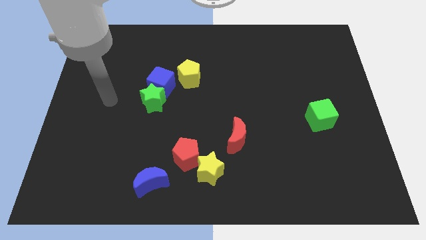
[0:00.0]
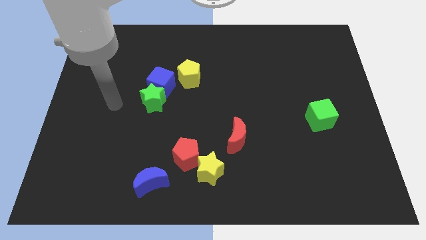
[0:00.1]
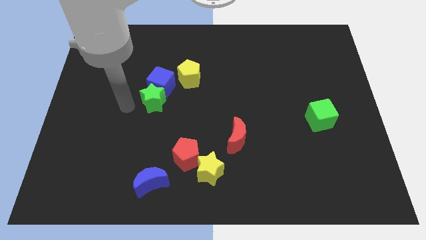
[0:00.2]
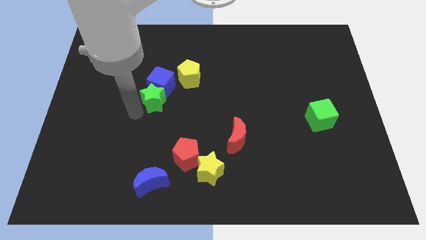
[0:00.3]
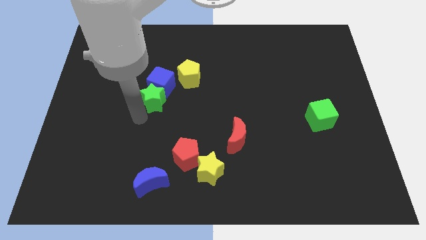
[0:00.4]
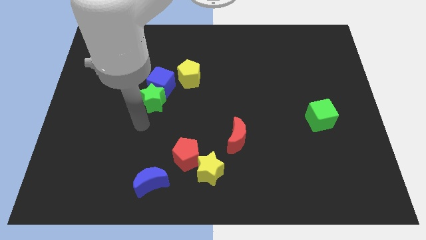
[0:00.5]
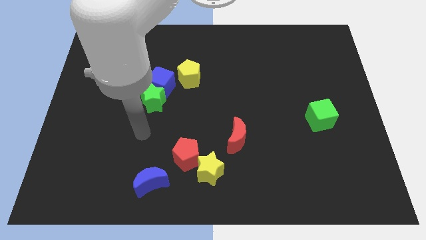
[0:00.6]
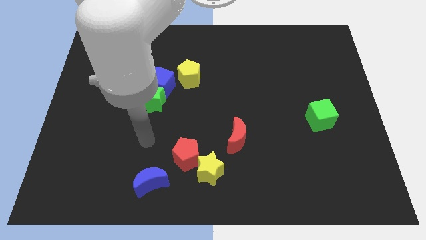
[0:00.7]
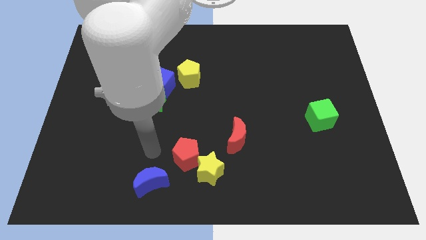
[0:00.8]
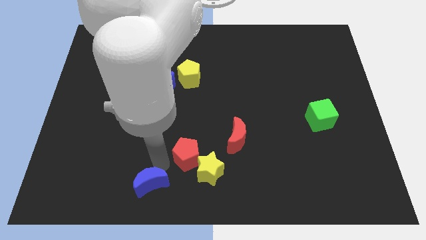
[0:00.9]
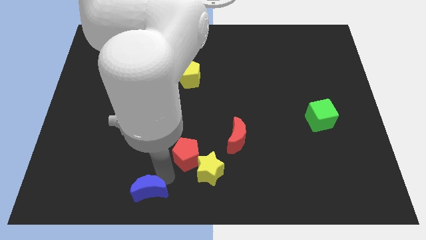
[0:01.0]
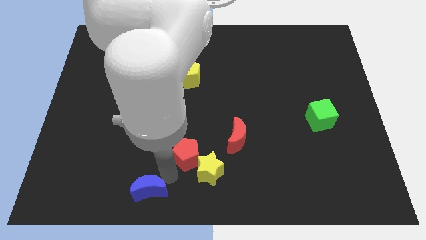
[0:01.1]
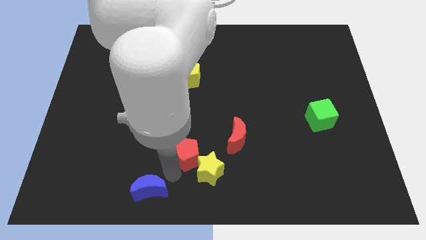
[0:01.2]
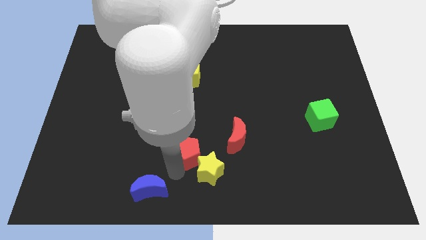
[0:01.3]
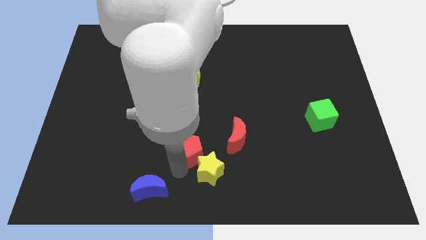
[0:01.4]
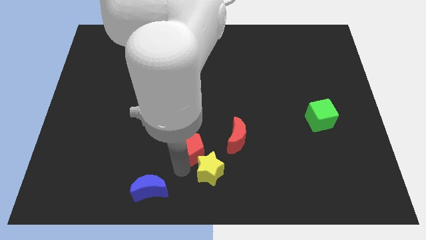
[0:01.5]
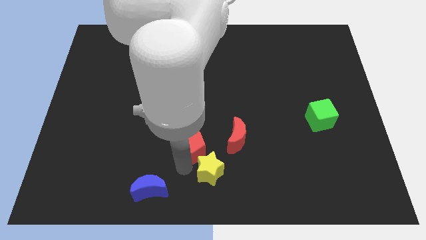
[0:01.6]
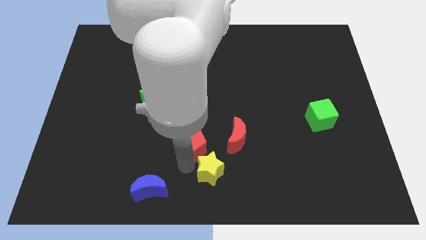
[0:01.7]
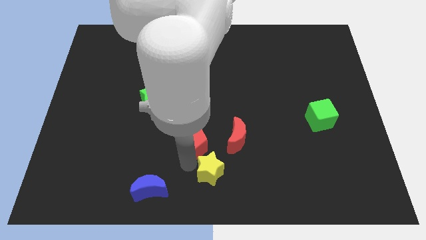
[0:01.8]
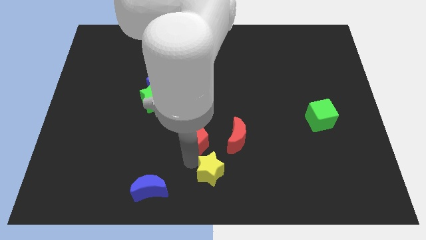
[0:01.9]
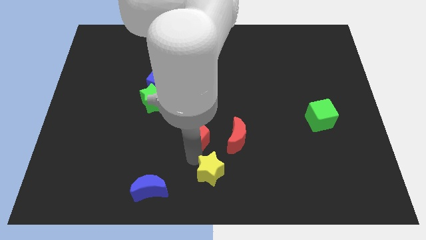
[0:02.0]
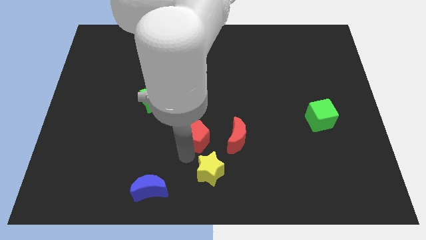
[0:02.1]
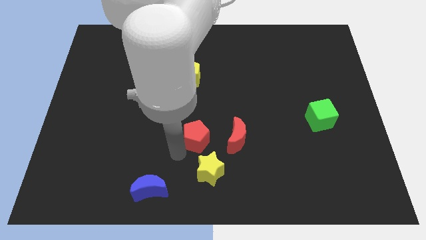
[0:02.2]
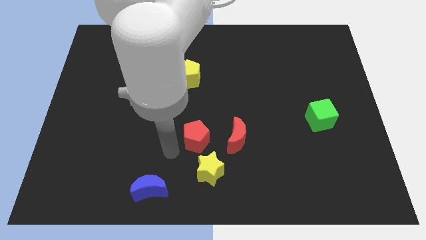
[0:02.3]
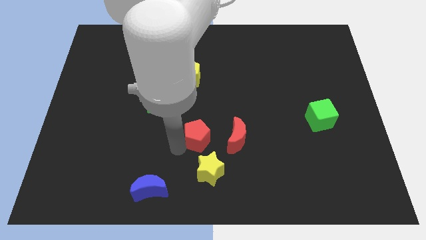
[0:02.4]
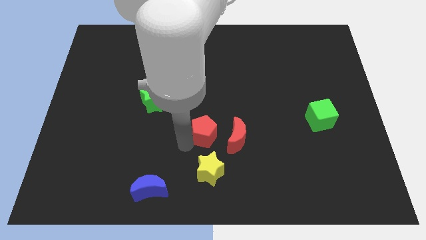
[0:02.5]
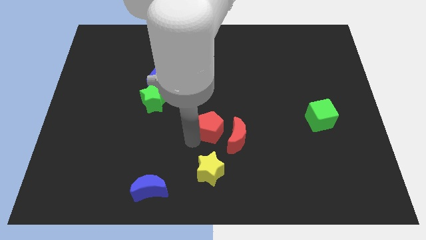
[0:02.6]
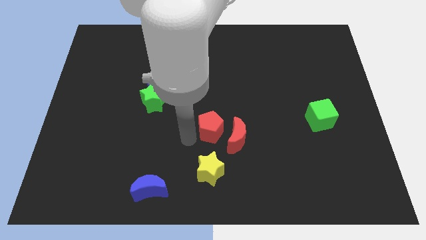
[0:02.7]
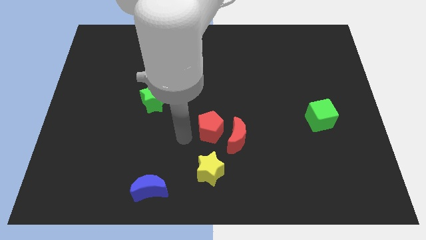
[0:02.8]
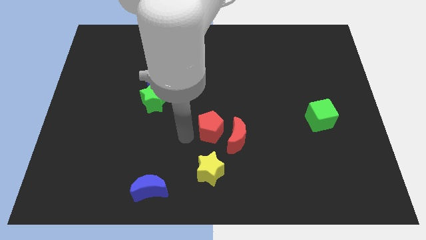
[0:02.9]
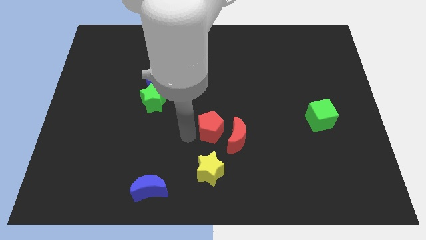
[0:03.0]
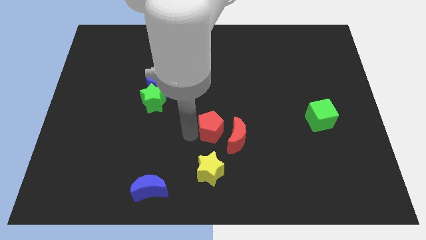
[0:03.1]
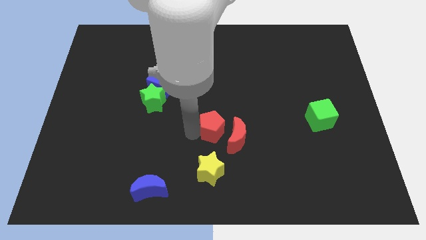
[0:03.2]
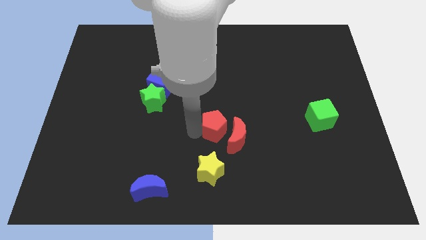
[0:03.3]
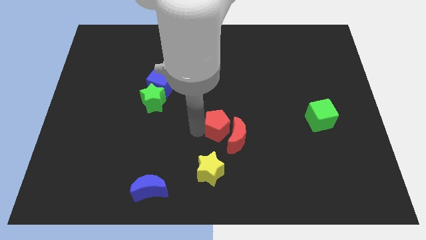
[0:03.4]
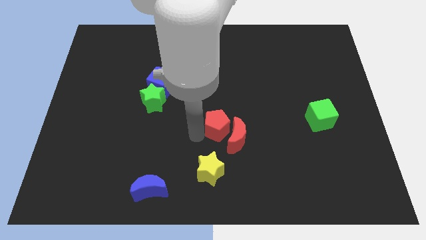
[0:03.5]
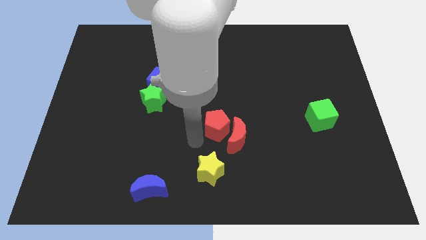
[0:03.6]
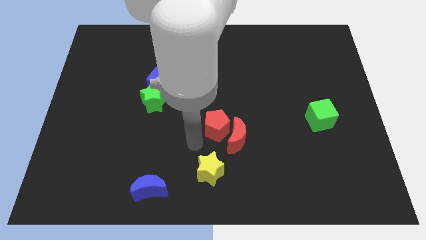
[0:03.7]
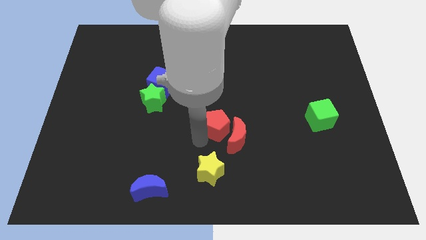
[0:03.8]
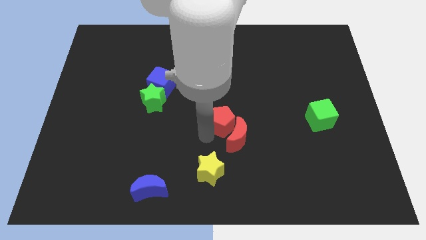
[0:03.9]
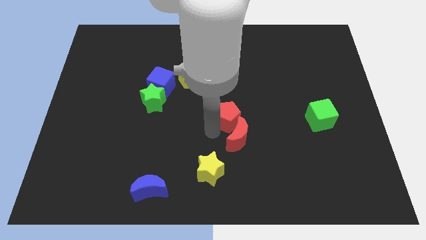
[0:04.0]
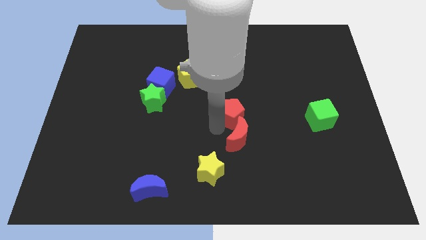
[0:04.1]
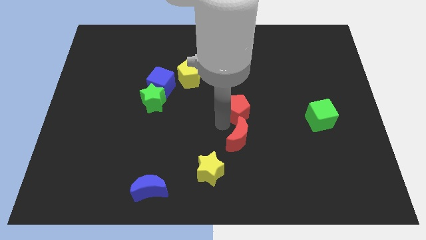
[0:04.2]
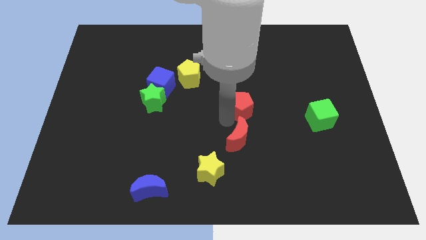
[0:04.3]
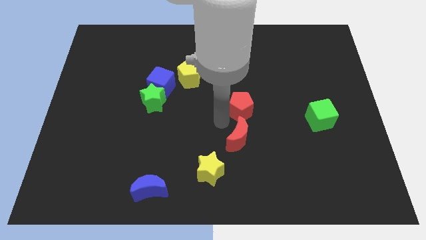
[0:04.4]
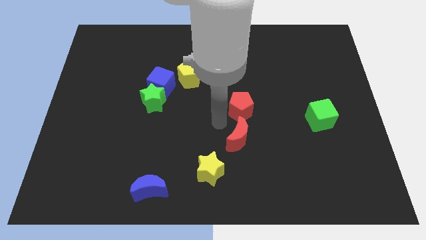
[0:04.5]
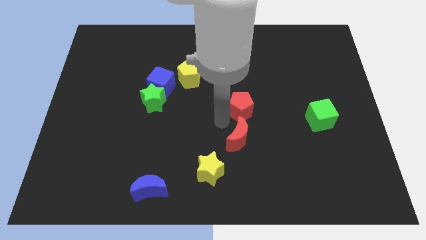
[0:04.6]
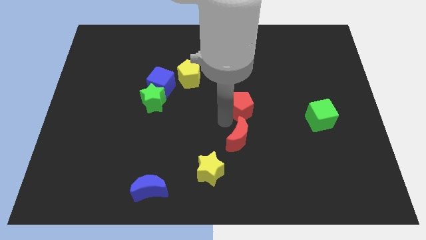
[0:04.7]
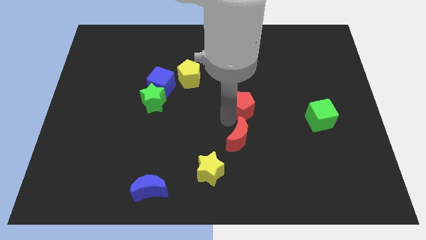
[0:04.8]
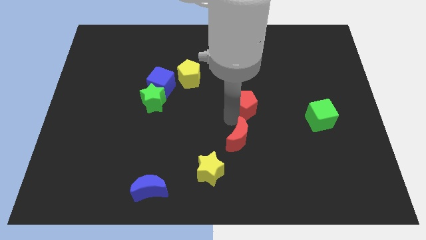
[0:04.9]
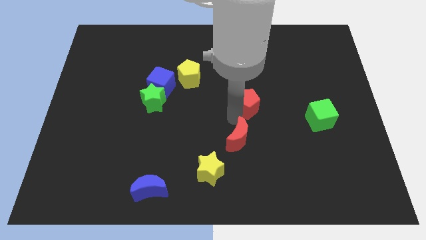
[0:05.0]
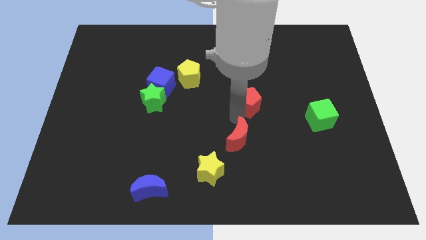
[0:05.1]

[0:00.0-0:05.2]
push the red pentagon upwards and to the right diagonally

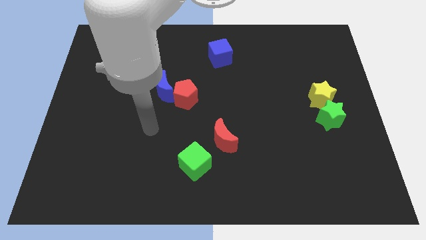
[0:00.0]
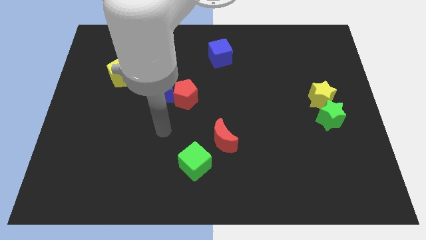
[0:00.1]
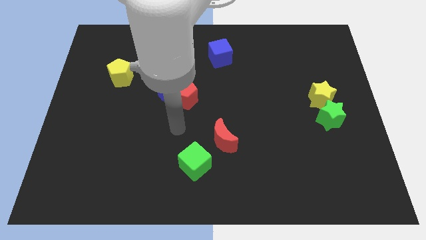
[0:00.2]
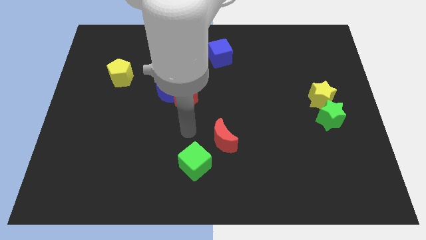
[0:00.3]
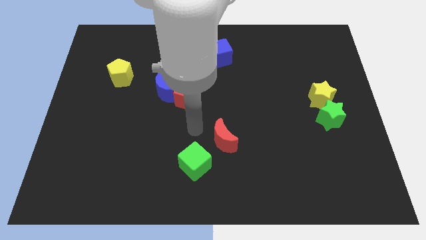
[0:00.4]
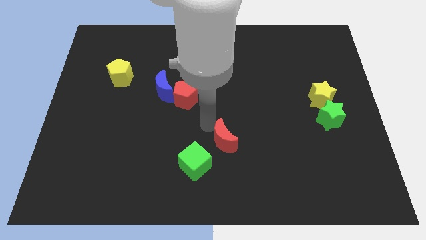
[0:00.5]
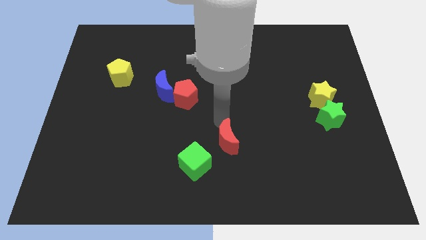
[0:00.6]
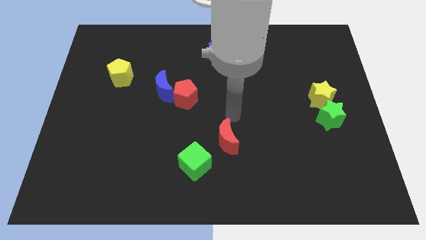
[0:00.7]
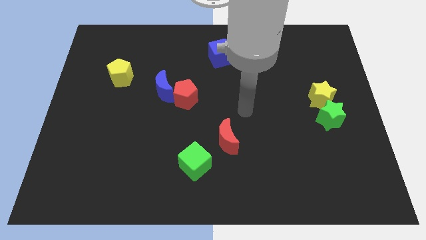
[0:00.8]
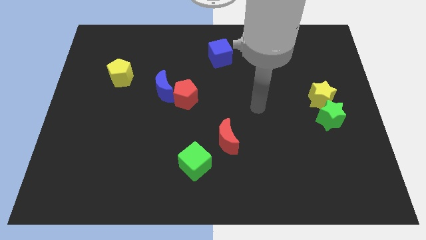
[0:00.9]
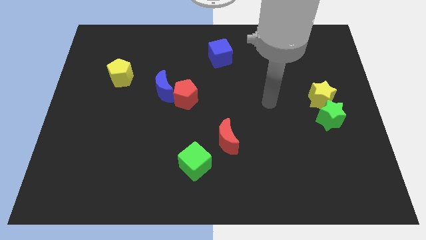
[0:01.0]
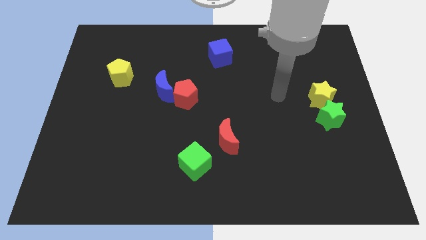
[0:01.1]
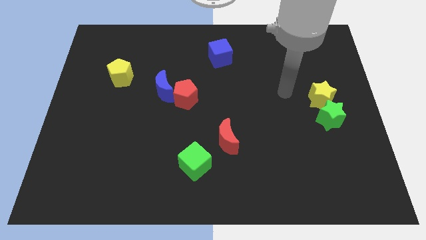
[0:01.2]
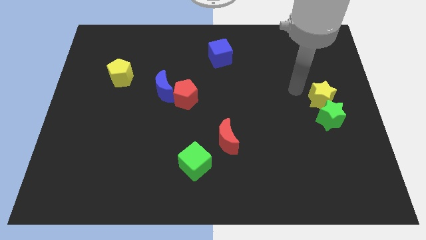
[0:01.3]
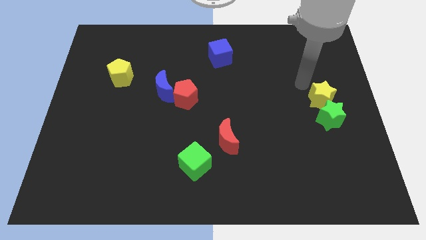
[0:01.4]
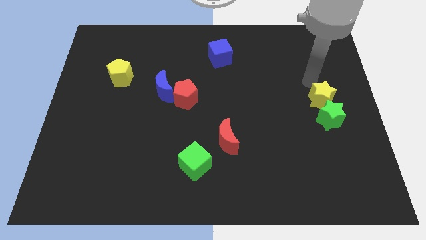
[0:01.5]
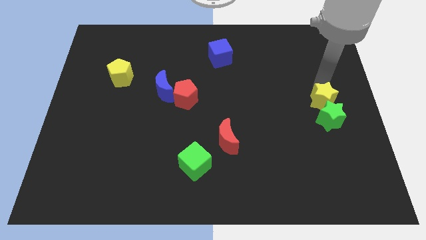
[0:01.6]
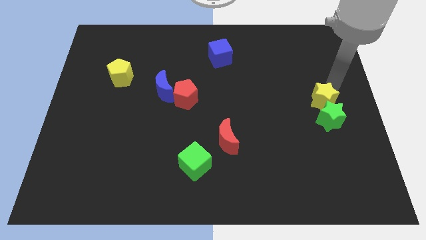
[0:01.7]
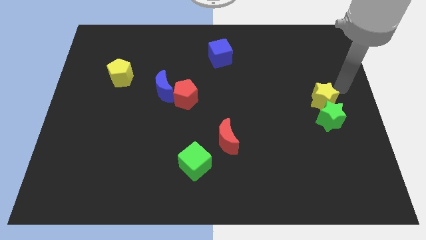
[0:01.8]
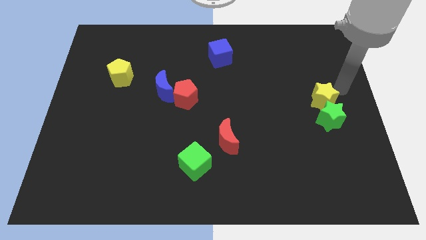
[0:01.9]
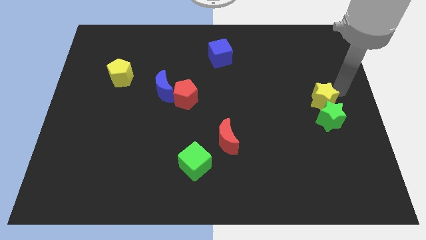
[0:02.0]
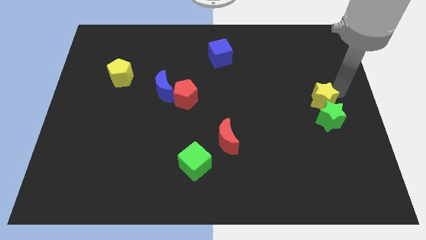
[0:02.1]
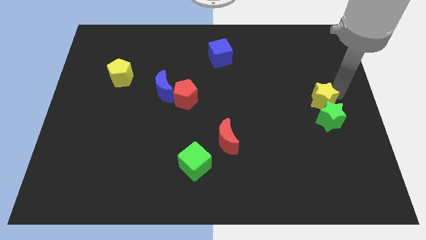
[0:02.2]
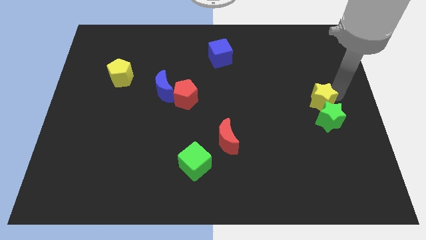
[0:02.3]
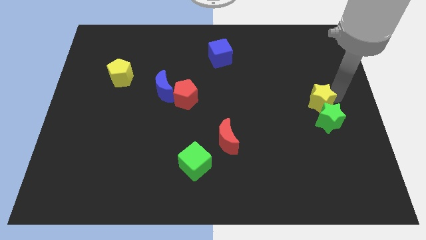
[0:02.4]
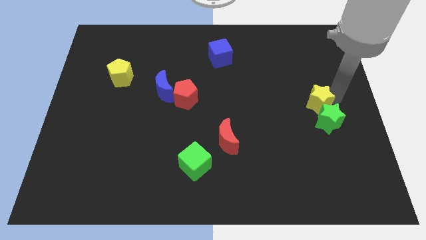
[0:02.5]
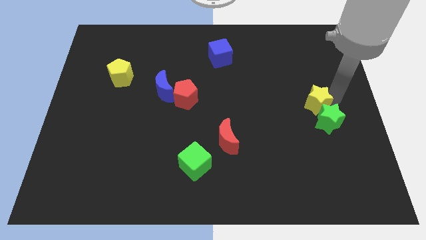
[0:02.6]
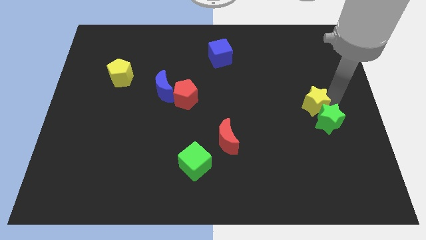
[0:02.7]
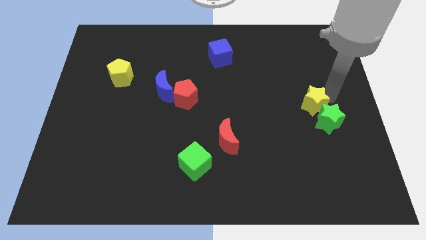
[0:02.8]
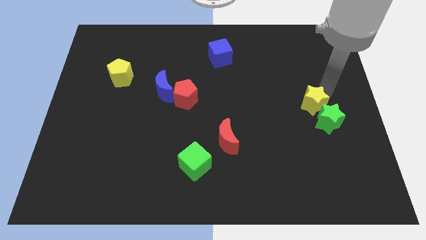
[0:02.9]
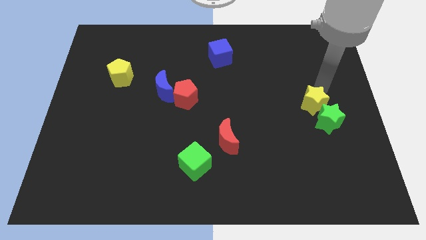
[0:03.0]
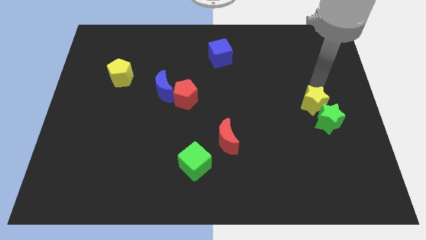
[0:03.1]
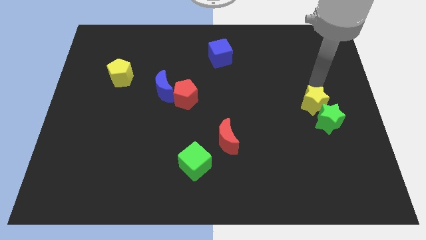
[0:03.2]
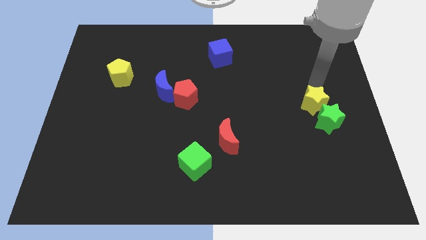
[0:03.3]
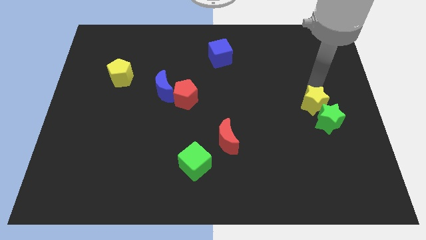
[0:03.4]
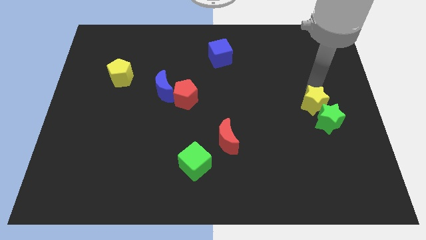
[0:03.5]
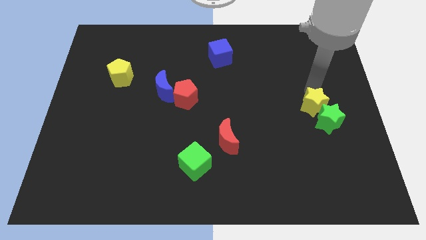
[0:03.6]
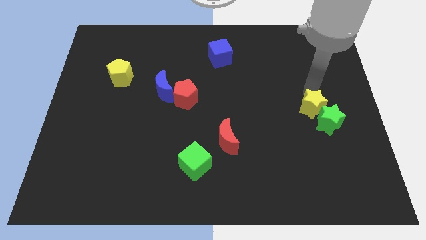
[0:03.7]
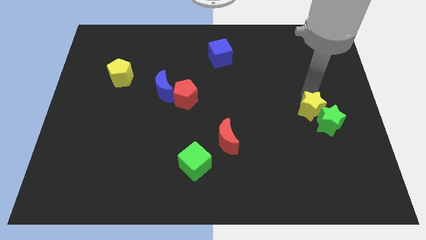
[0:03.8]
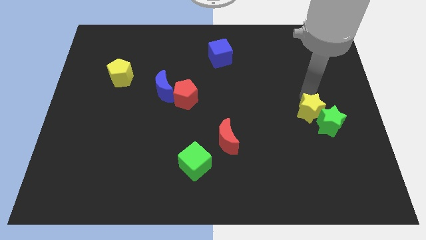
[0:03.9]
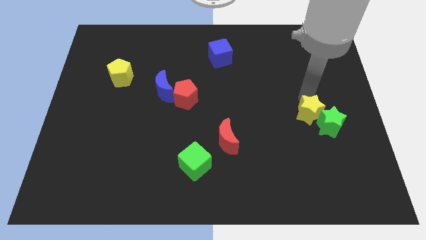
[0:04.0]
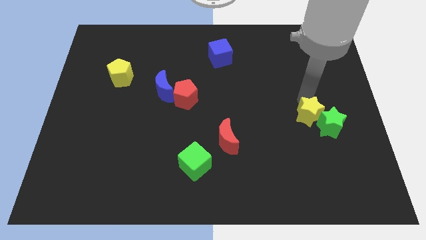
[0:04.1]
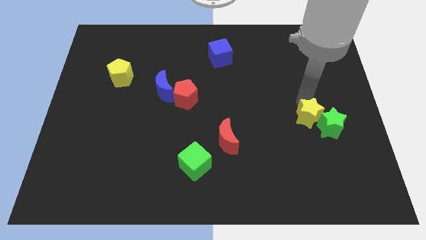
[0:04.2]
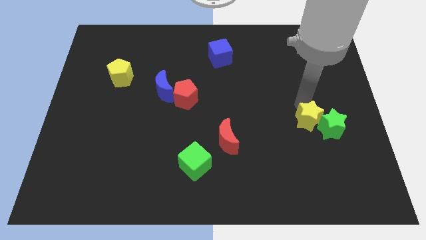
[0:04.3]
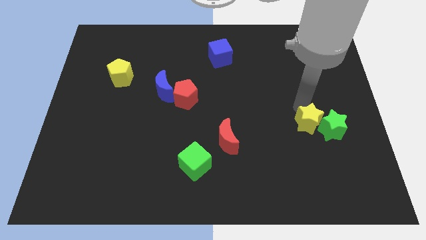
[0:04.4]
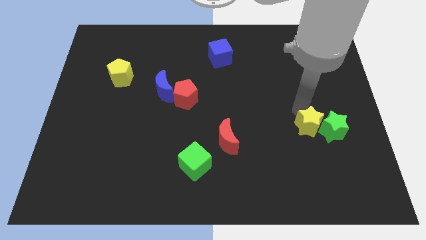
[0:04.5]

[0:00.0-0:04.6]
move the yellow star down a little bit
